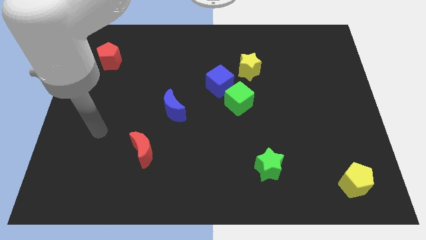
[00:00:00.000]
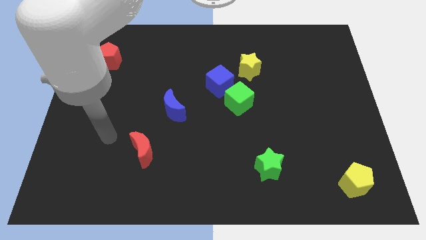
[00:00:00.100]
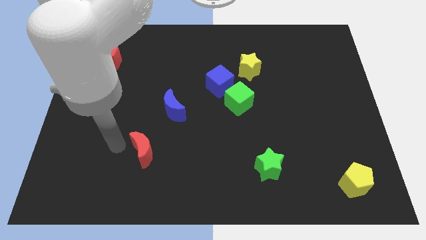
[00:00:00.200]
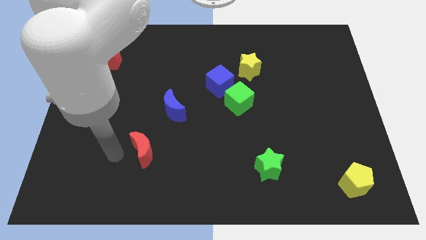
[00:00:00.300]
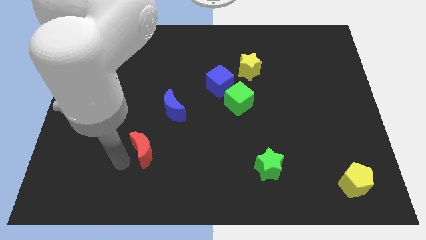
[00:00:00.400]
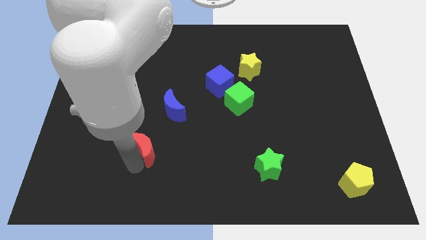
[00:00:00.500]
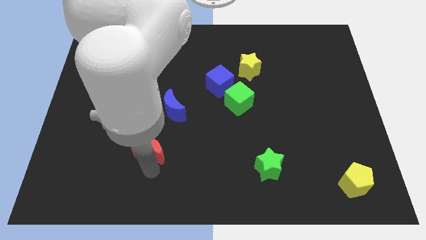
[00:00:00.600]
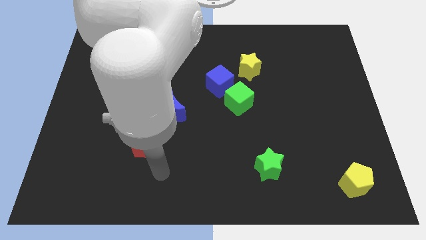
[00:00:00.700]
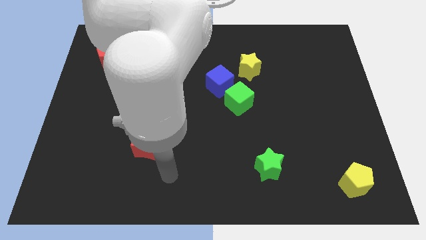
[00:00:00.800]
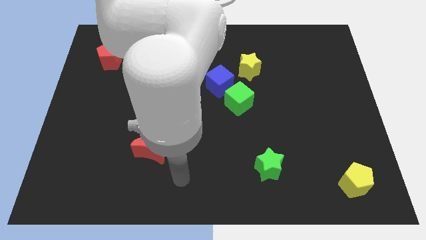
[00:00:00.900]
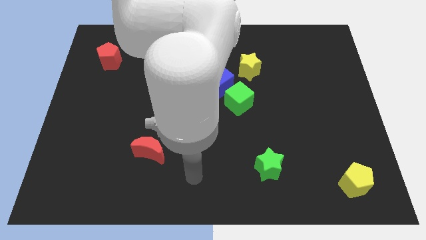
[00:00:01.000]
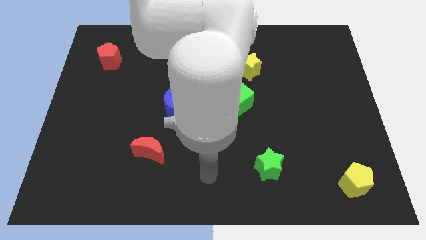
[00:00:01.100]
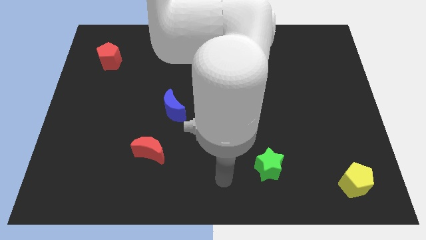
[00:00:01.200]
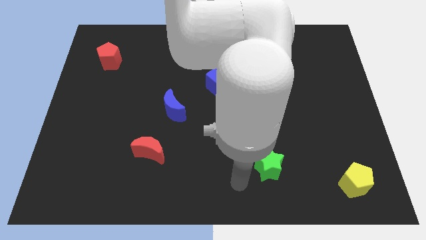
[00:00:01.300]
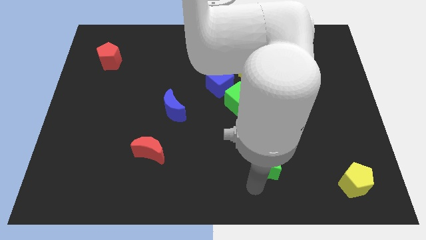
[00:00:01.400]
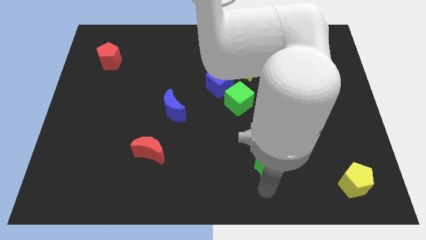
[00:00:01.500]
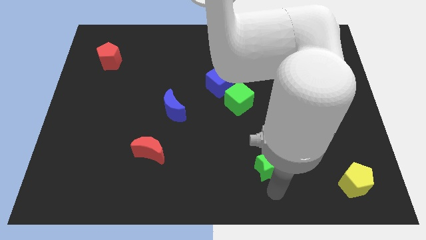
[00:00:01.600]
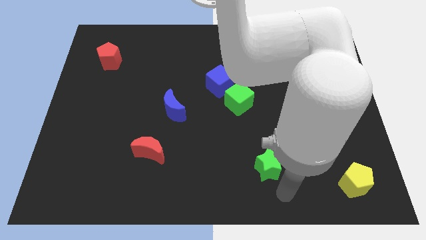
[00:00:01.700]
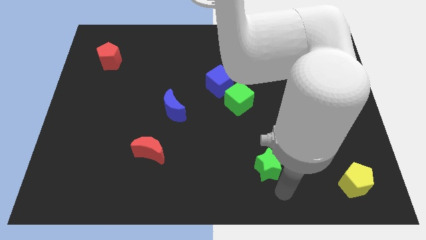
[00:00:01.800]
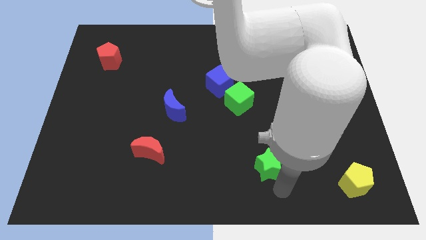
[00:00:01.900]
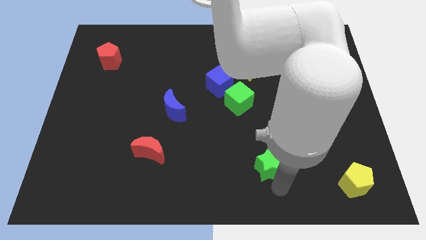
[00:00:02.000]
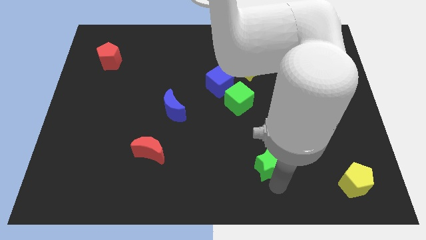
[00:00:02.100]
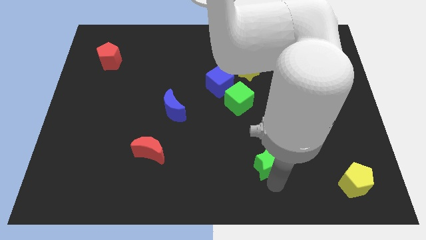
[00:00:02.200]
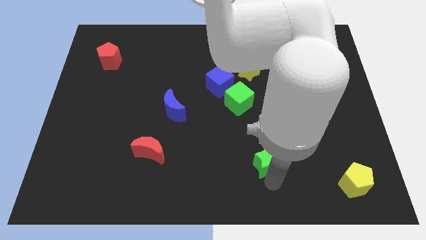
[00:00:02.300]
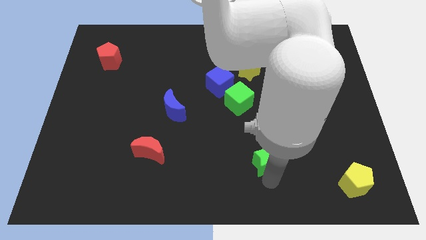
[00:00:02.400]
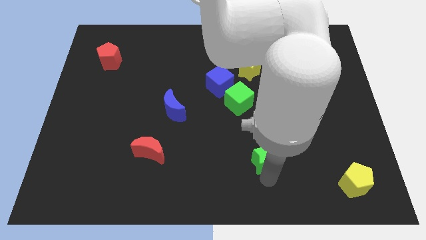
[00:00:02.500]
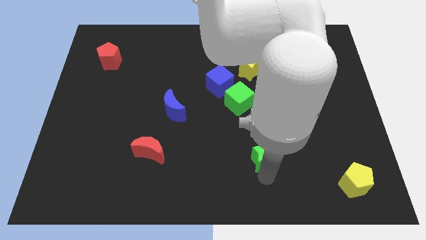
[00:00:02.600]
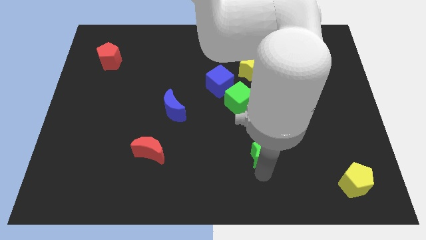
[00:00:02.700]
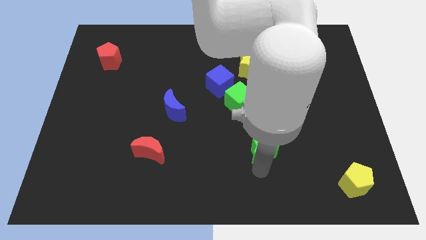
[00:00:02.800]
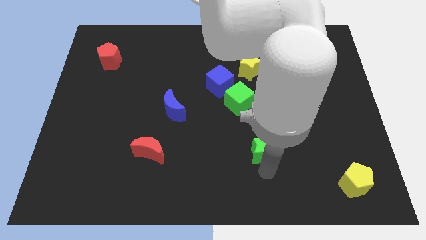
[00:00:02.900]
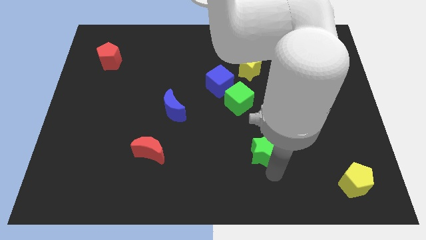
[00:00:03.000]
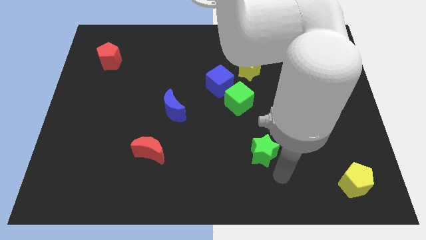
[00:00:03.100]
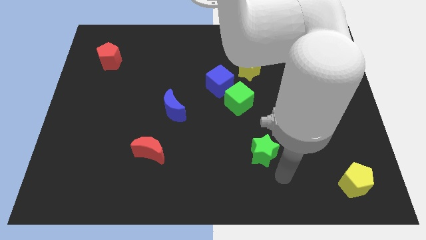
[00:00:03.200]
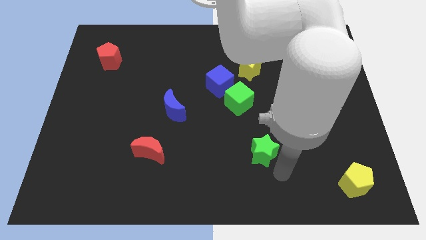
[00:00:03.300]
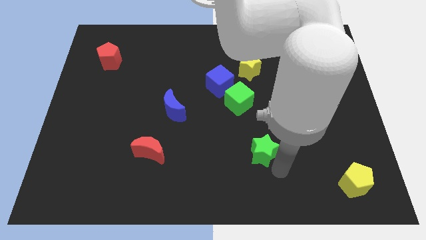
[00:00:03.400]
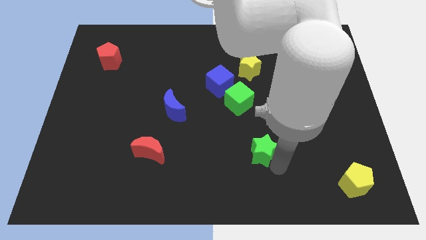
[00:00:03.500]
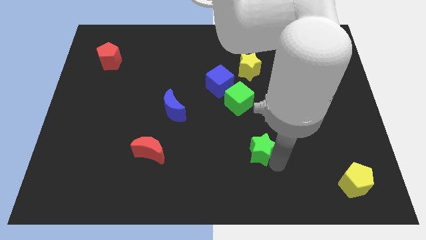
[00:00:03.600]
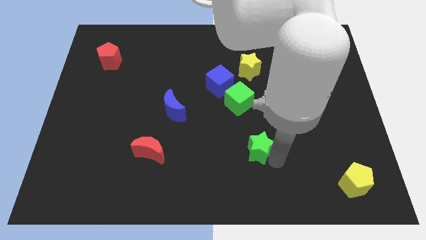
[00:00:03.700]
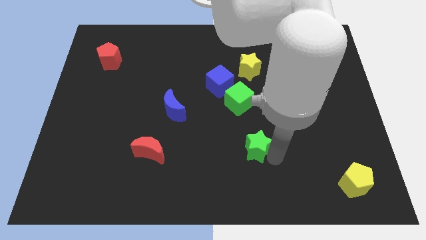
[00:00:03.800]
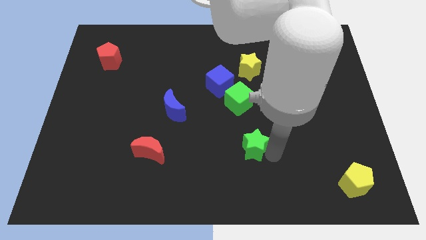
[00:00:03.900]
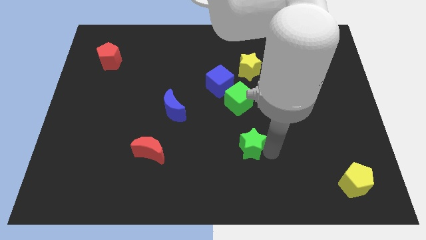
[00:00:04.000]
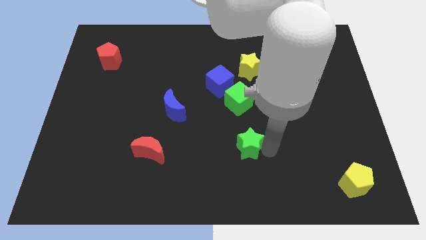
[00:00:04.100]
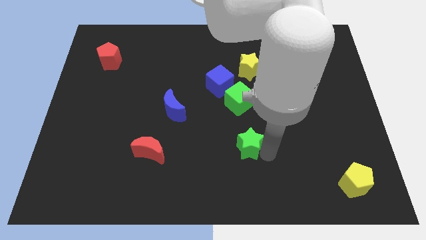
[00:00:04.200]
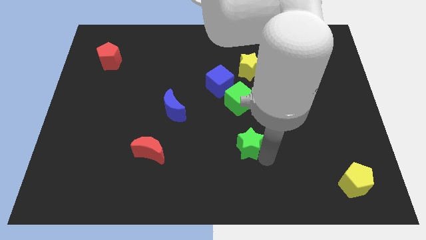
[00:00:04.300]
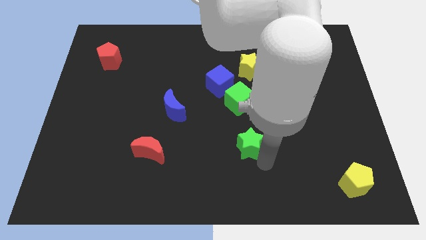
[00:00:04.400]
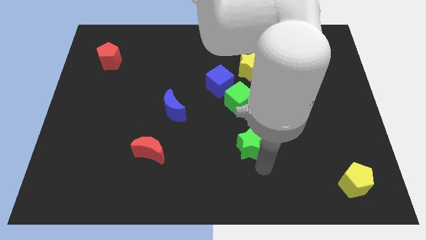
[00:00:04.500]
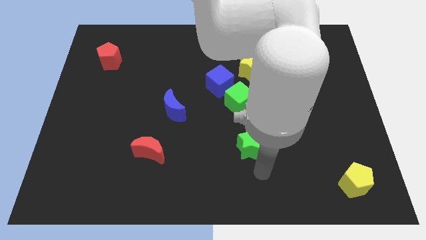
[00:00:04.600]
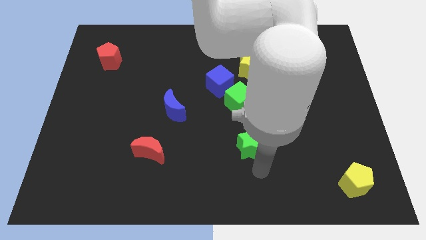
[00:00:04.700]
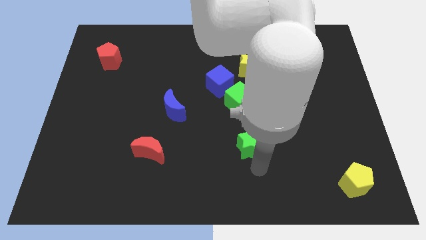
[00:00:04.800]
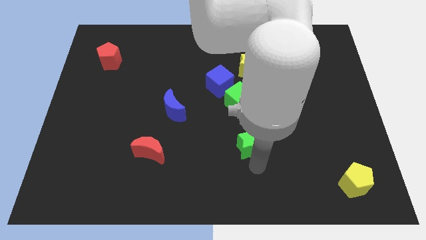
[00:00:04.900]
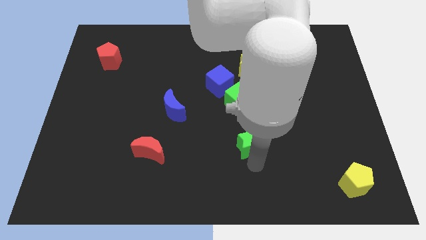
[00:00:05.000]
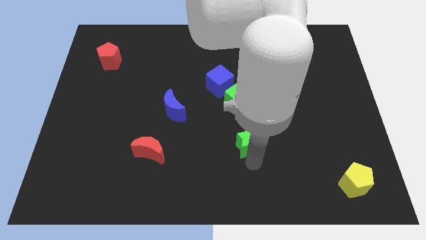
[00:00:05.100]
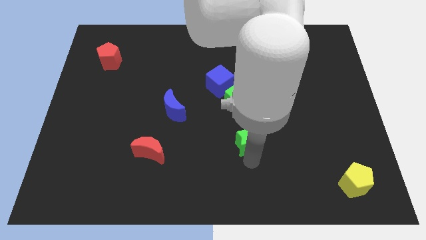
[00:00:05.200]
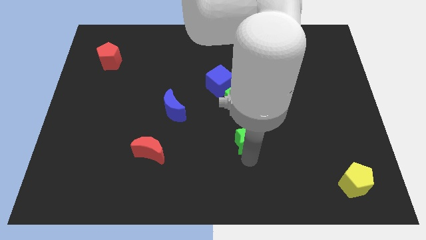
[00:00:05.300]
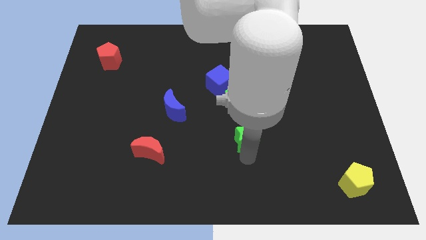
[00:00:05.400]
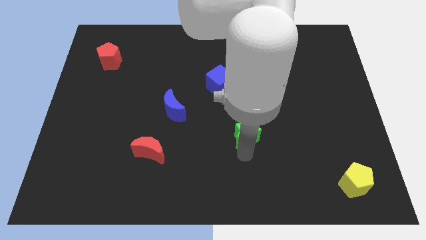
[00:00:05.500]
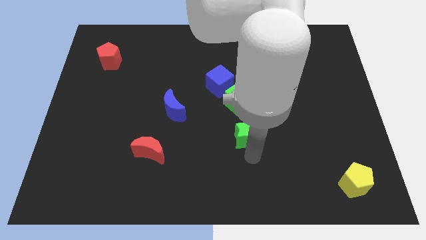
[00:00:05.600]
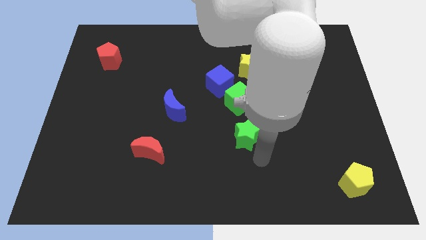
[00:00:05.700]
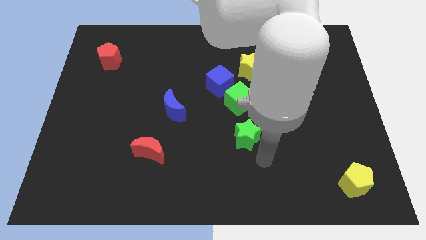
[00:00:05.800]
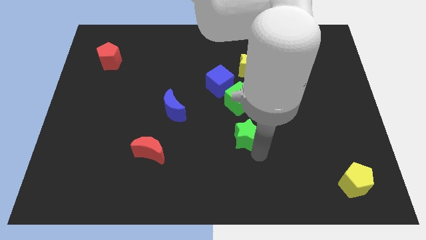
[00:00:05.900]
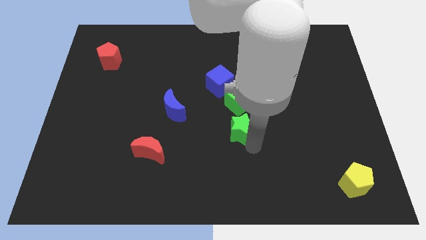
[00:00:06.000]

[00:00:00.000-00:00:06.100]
move the green star to the middle
